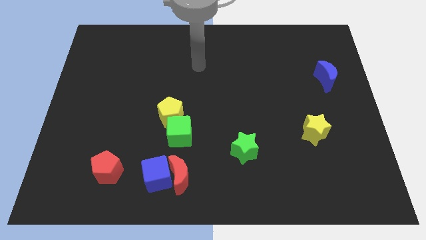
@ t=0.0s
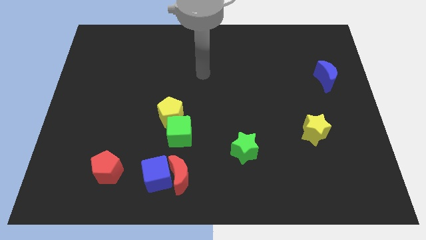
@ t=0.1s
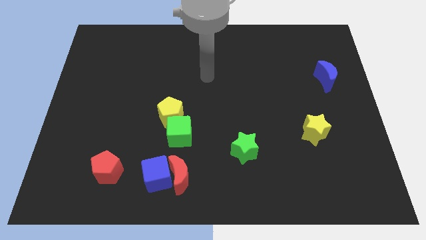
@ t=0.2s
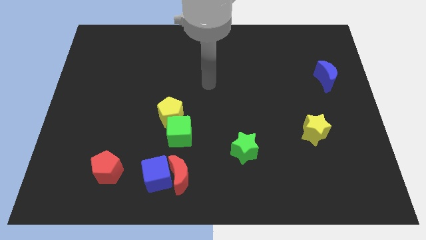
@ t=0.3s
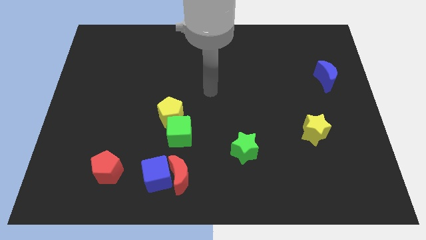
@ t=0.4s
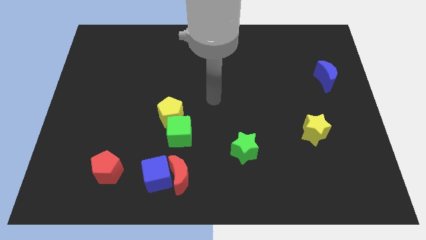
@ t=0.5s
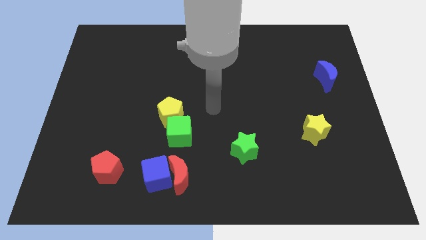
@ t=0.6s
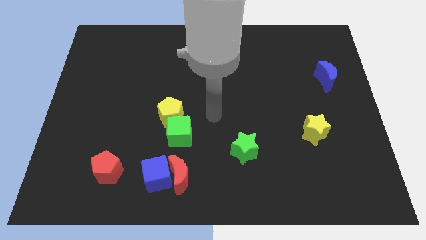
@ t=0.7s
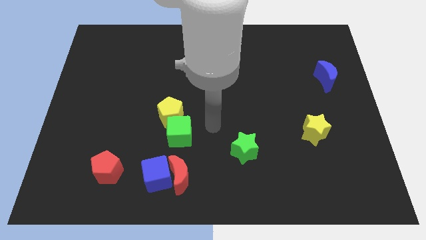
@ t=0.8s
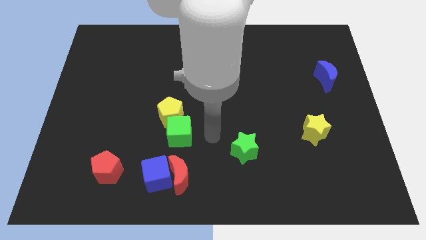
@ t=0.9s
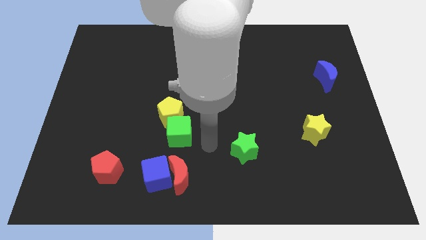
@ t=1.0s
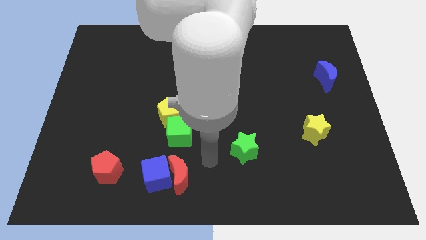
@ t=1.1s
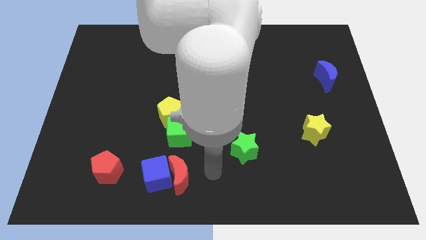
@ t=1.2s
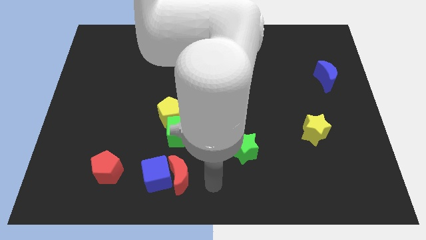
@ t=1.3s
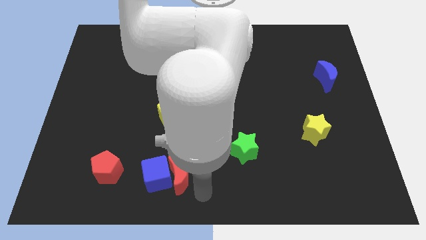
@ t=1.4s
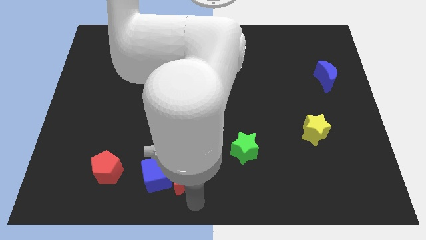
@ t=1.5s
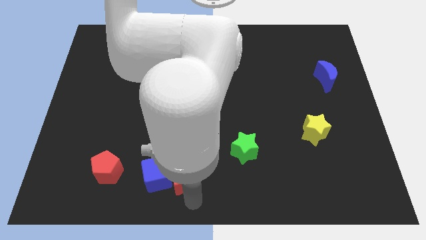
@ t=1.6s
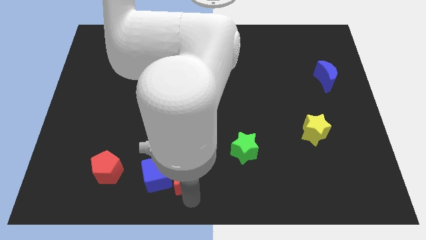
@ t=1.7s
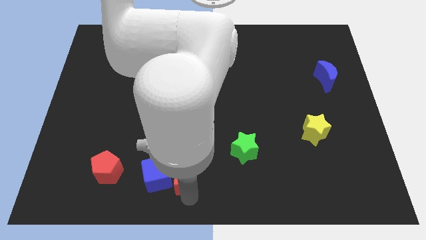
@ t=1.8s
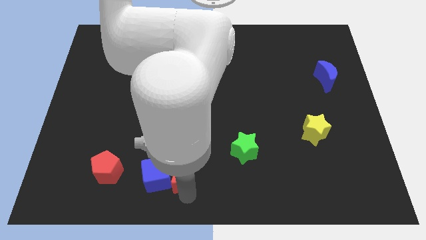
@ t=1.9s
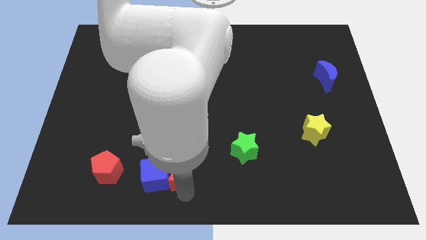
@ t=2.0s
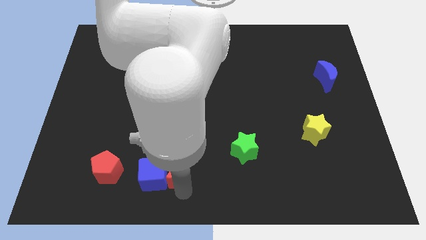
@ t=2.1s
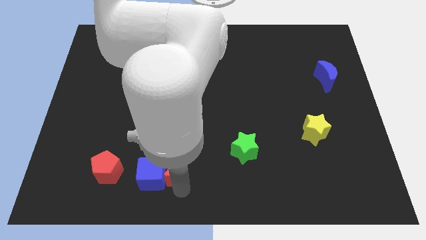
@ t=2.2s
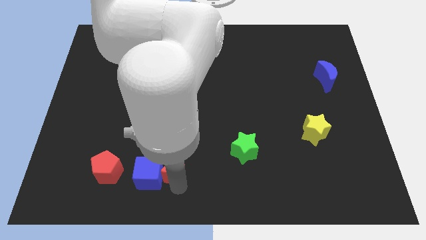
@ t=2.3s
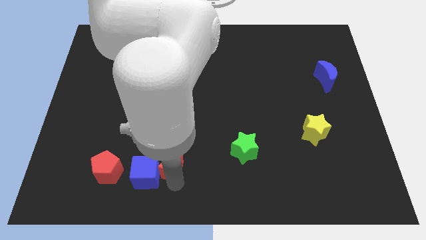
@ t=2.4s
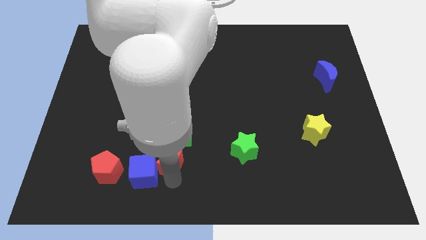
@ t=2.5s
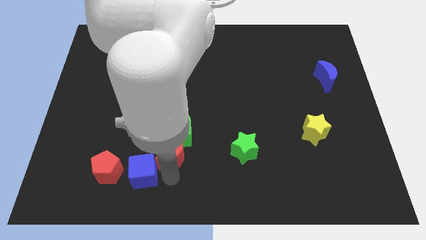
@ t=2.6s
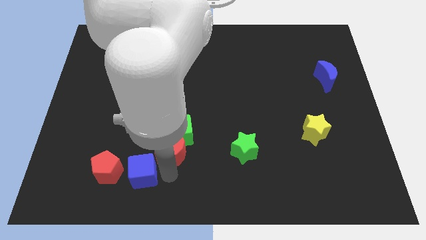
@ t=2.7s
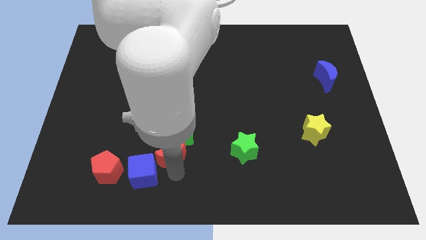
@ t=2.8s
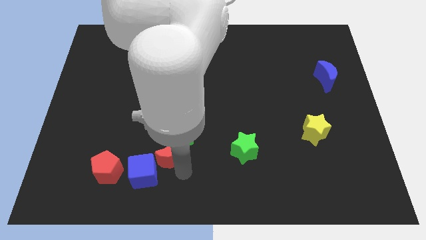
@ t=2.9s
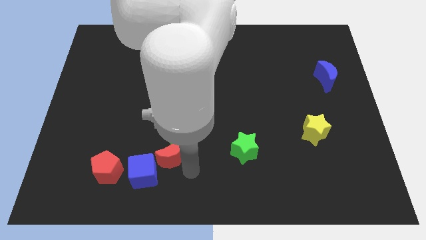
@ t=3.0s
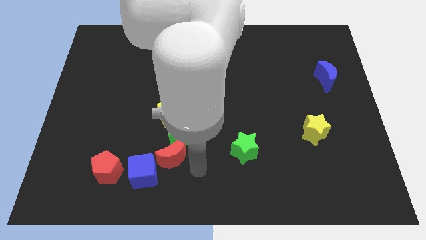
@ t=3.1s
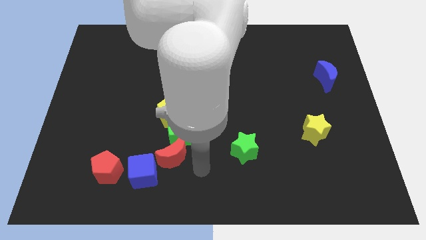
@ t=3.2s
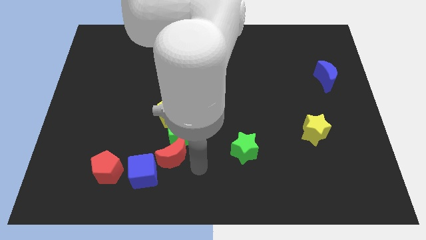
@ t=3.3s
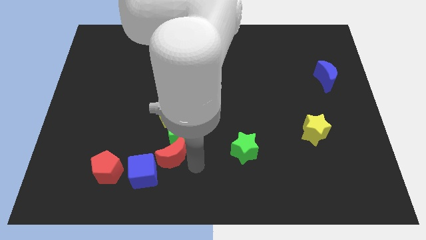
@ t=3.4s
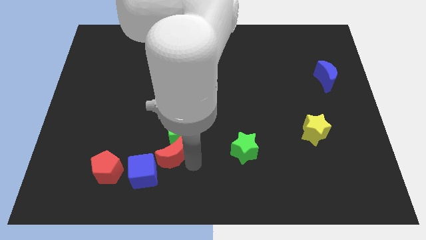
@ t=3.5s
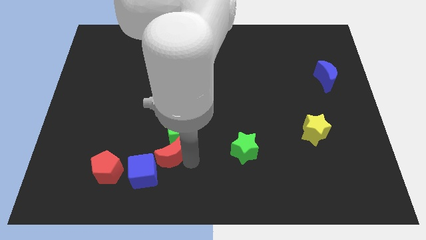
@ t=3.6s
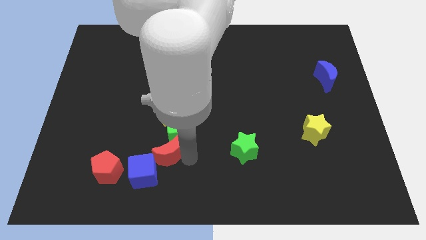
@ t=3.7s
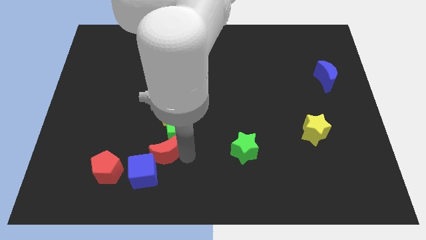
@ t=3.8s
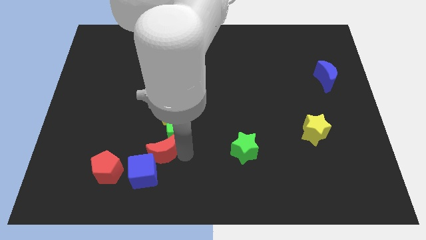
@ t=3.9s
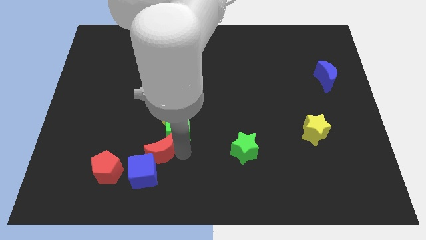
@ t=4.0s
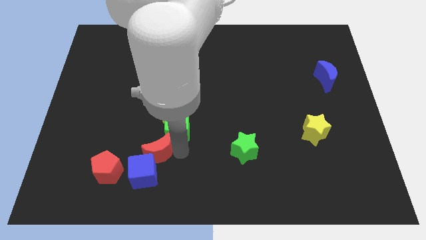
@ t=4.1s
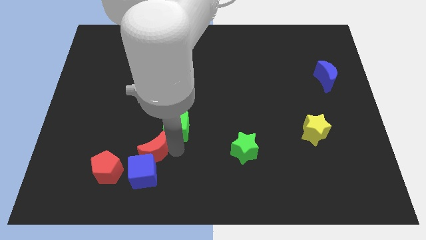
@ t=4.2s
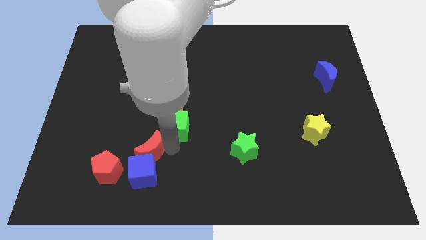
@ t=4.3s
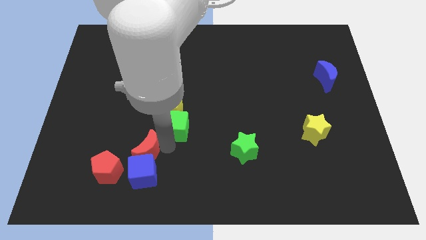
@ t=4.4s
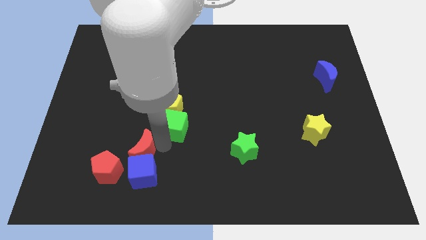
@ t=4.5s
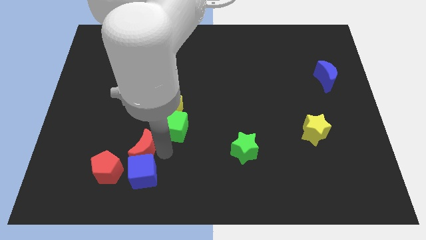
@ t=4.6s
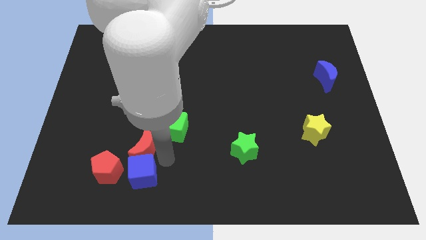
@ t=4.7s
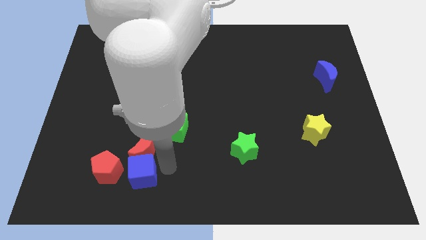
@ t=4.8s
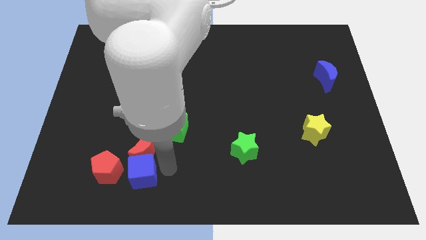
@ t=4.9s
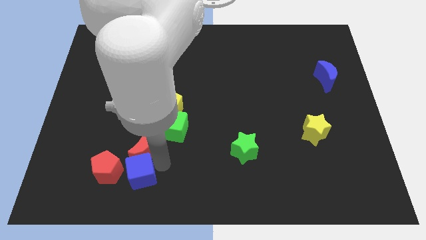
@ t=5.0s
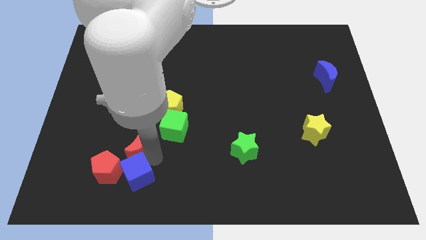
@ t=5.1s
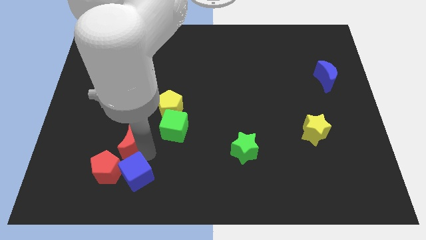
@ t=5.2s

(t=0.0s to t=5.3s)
move the red moon to the top of the red pentagon

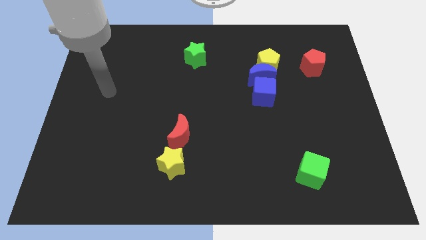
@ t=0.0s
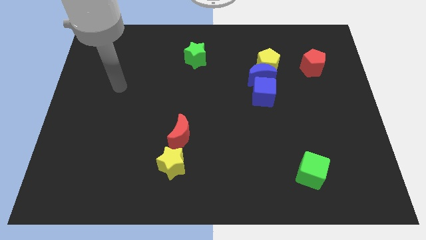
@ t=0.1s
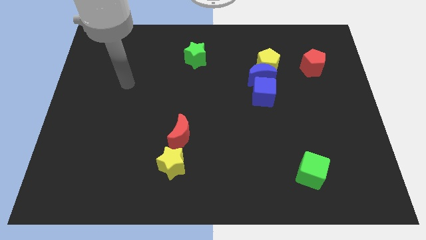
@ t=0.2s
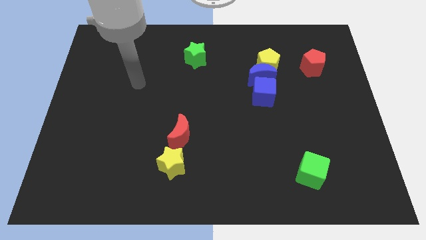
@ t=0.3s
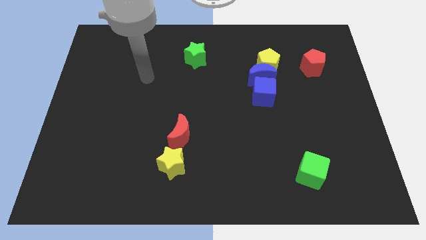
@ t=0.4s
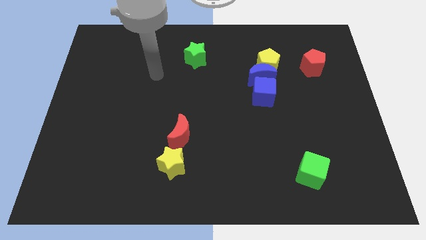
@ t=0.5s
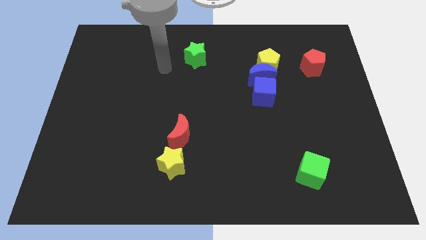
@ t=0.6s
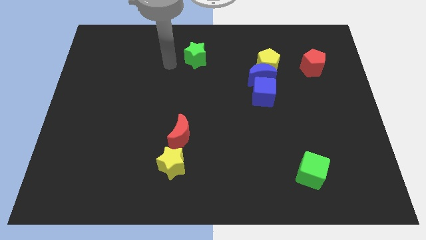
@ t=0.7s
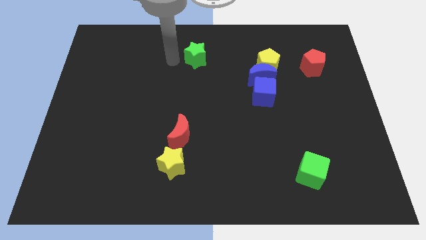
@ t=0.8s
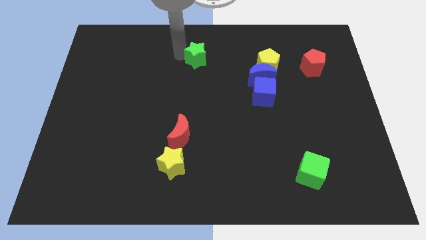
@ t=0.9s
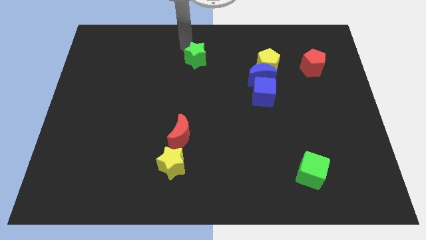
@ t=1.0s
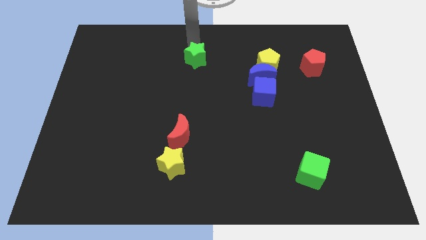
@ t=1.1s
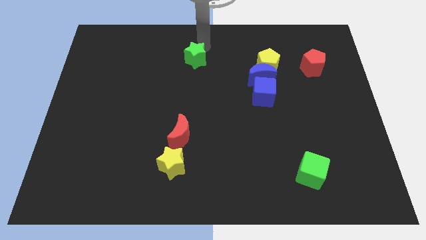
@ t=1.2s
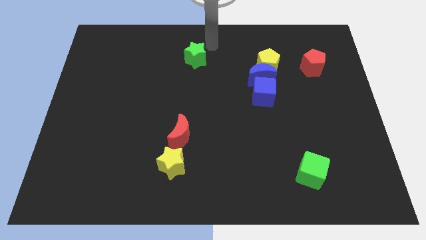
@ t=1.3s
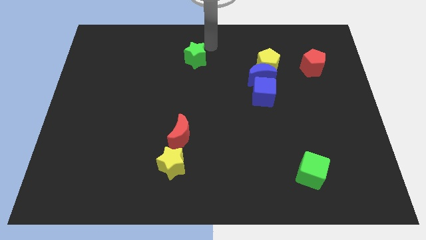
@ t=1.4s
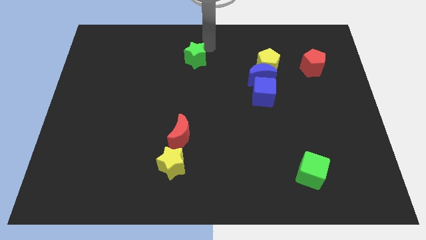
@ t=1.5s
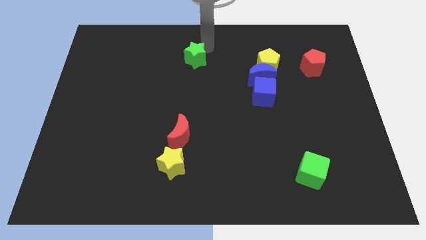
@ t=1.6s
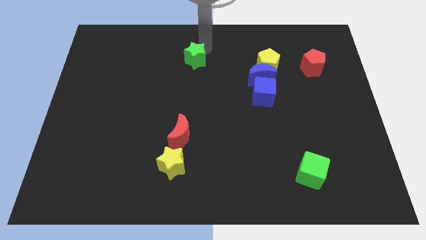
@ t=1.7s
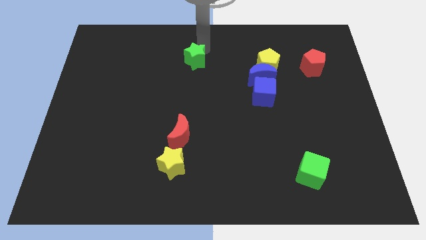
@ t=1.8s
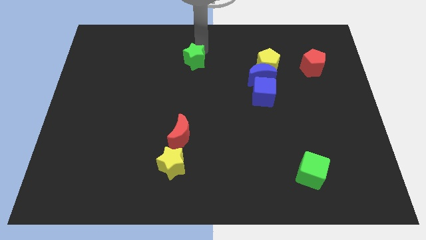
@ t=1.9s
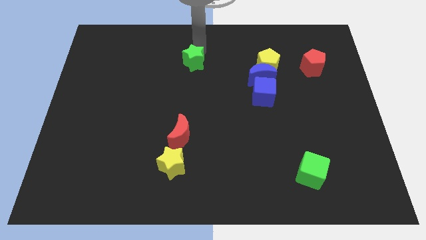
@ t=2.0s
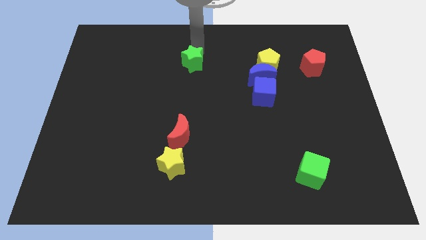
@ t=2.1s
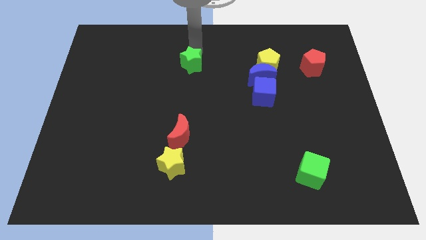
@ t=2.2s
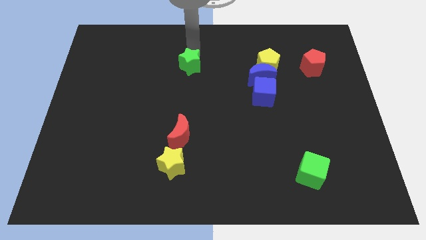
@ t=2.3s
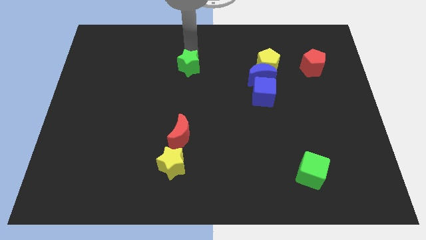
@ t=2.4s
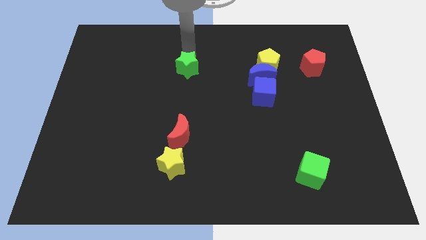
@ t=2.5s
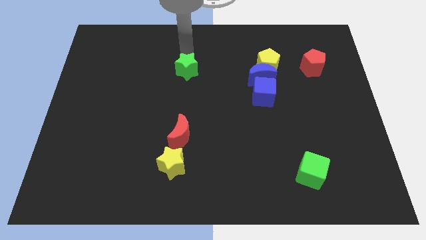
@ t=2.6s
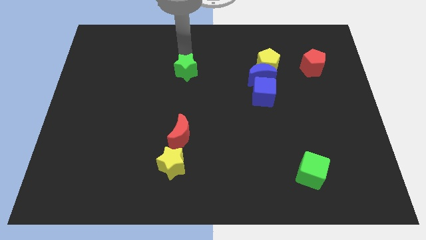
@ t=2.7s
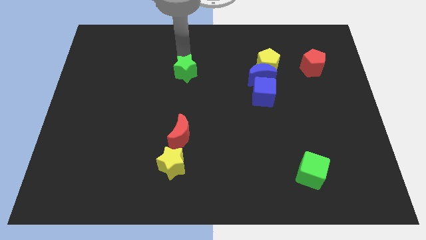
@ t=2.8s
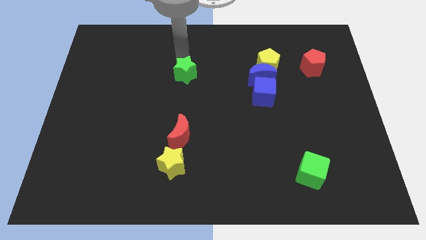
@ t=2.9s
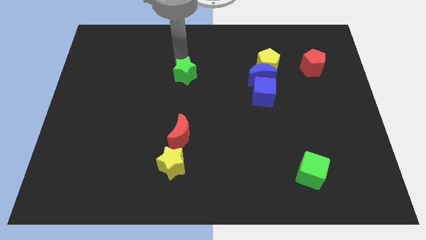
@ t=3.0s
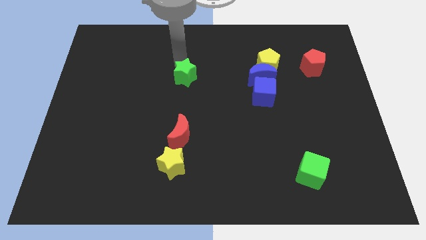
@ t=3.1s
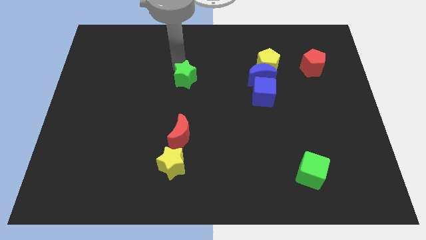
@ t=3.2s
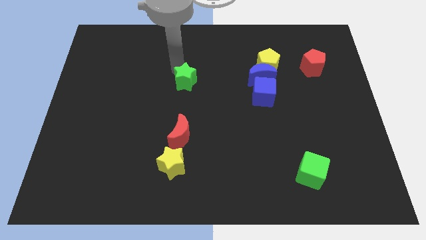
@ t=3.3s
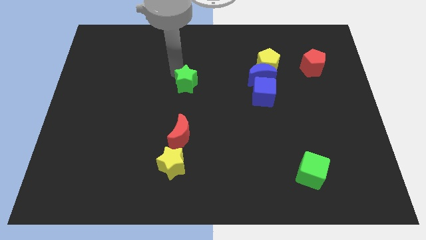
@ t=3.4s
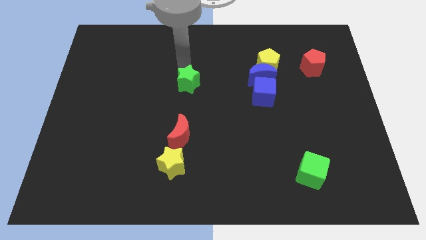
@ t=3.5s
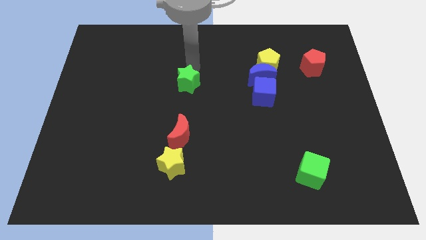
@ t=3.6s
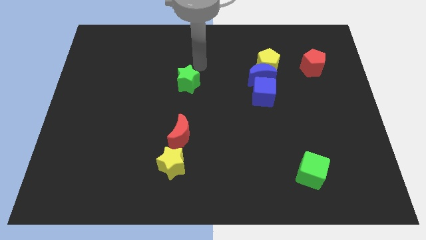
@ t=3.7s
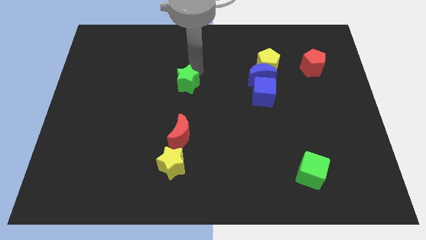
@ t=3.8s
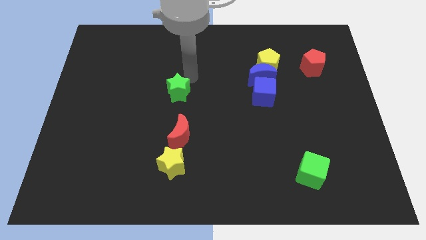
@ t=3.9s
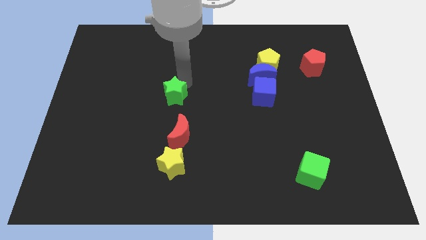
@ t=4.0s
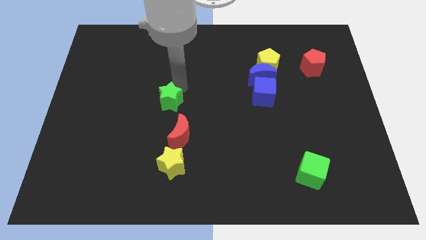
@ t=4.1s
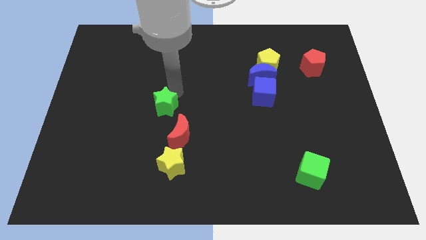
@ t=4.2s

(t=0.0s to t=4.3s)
move the green star to the top left of the red moon
